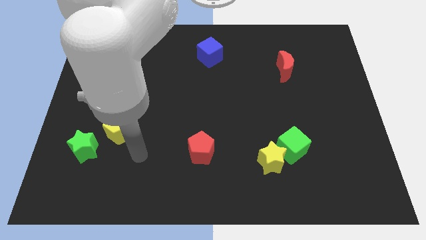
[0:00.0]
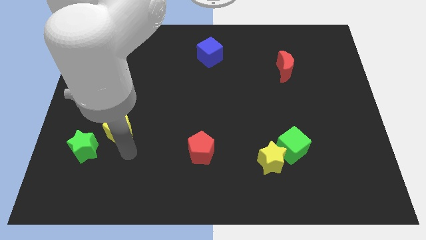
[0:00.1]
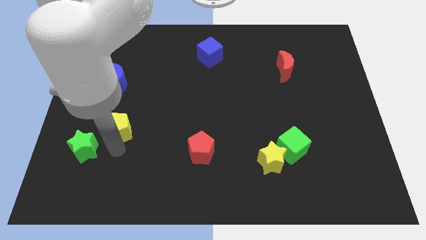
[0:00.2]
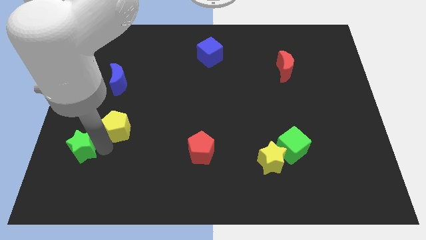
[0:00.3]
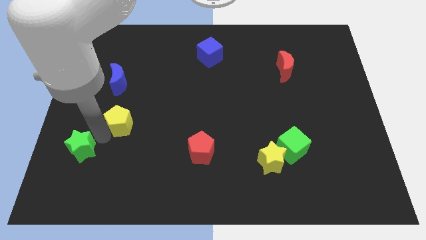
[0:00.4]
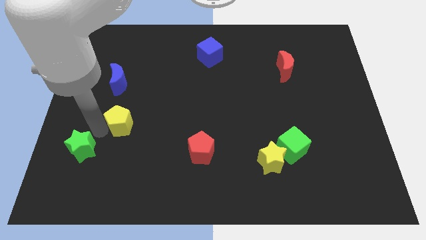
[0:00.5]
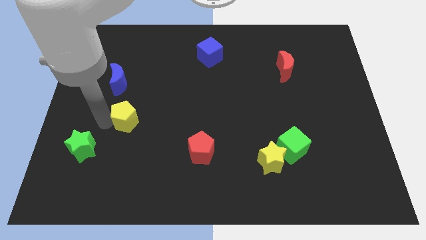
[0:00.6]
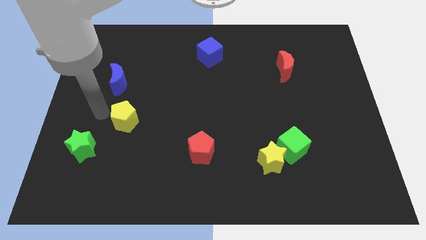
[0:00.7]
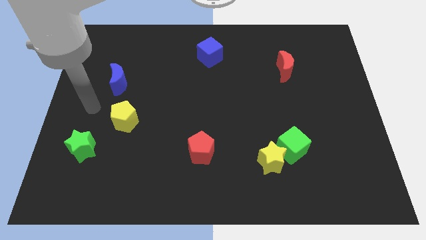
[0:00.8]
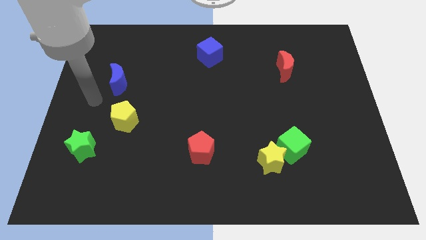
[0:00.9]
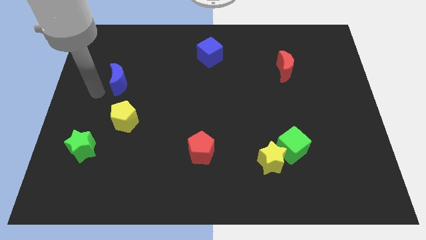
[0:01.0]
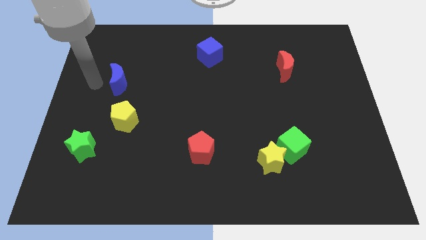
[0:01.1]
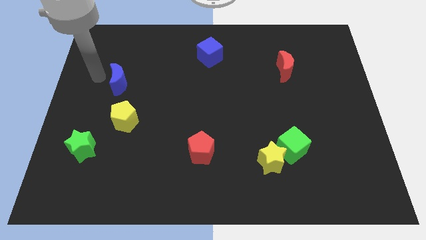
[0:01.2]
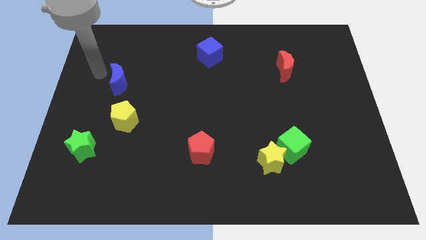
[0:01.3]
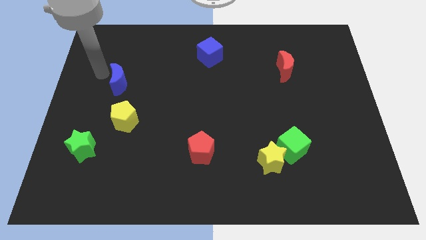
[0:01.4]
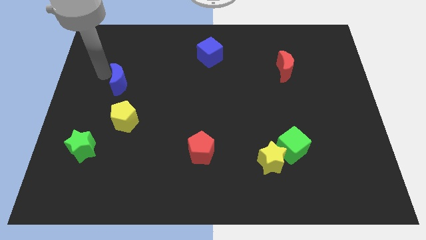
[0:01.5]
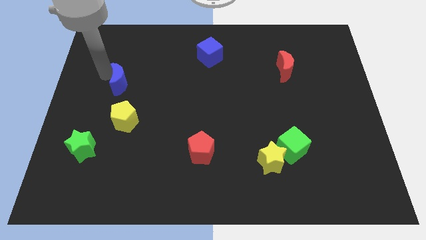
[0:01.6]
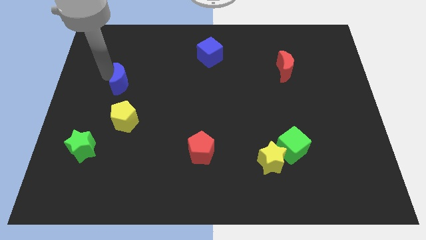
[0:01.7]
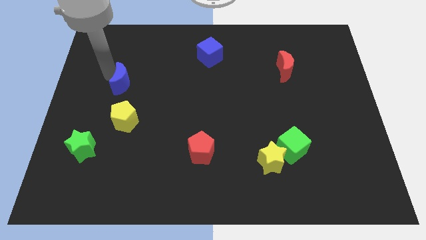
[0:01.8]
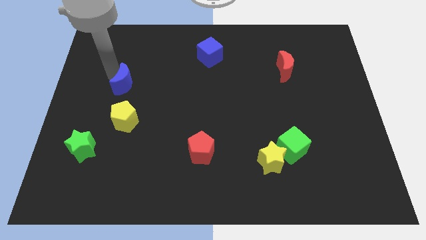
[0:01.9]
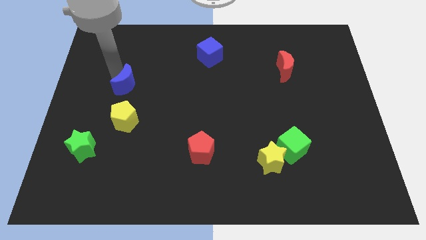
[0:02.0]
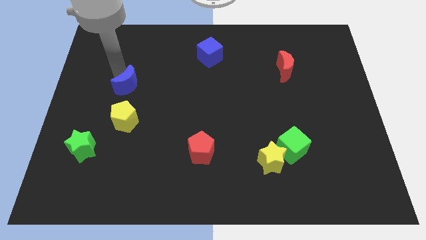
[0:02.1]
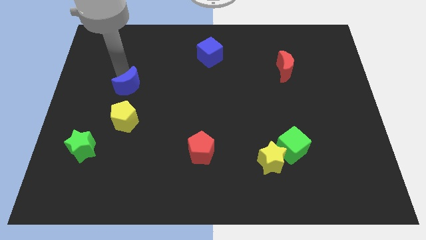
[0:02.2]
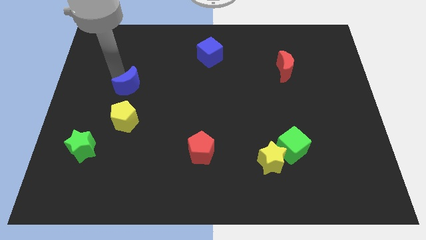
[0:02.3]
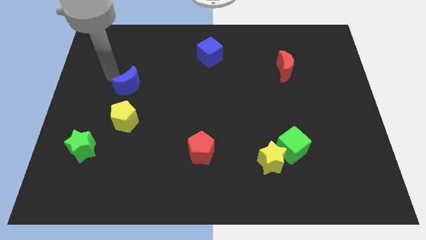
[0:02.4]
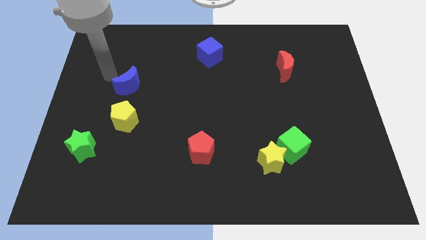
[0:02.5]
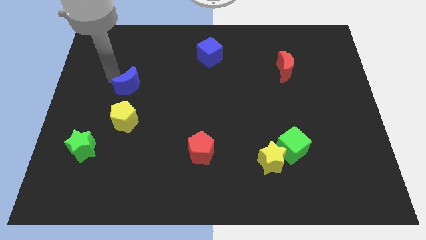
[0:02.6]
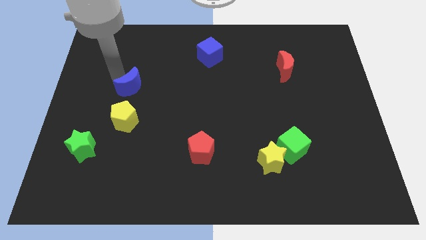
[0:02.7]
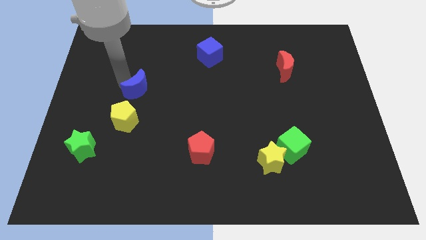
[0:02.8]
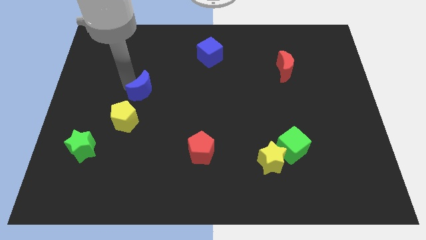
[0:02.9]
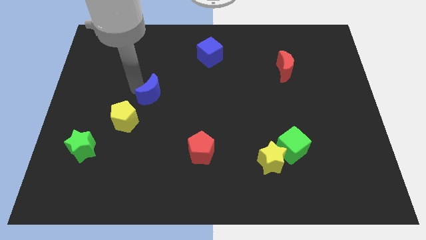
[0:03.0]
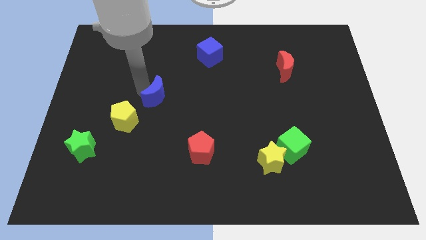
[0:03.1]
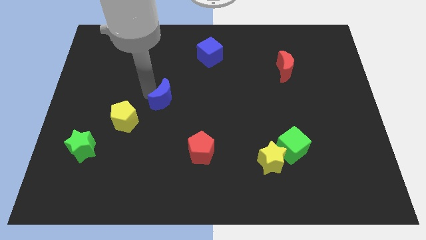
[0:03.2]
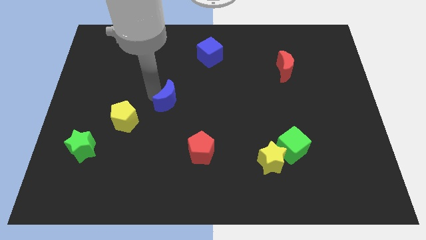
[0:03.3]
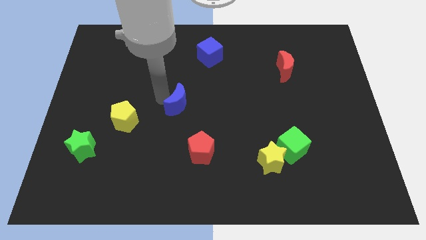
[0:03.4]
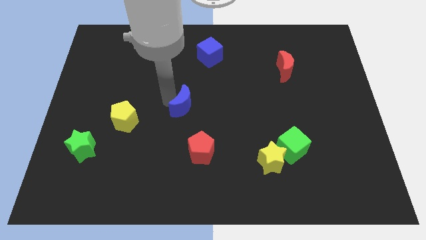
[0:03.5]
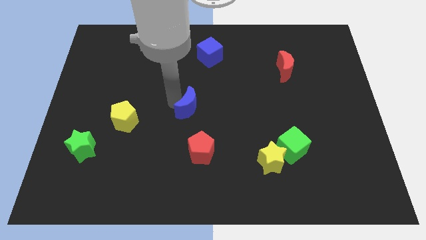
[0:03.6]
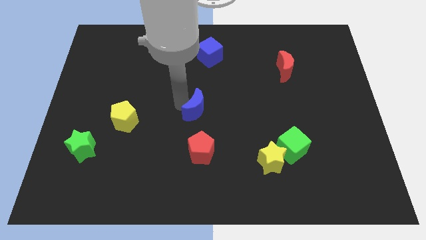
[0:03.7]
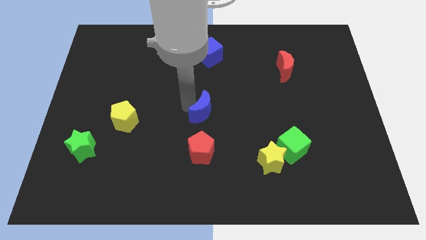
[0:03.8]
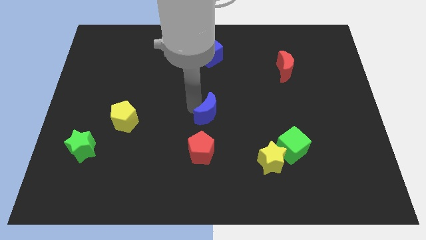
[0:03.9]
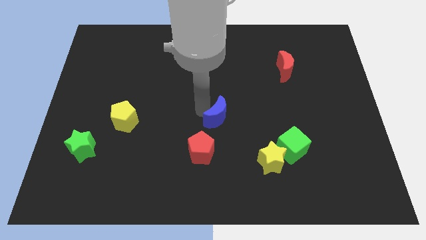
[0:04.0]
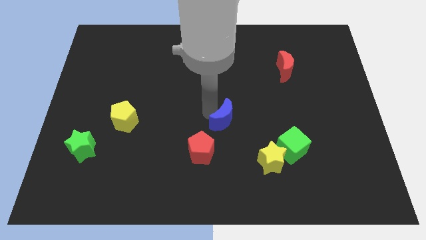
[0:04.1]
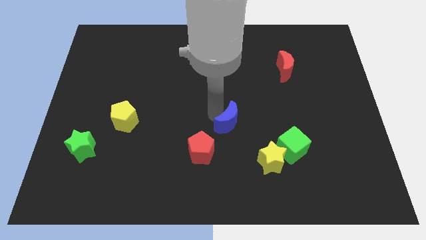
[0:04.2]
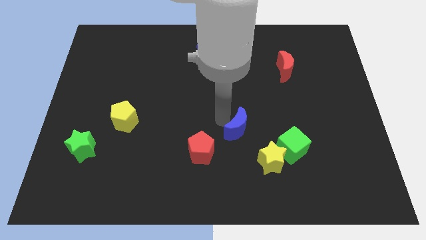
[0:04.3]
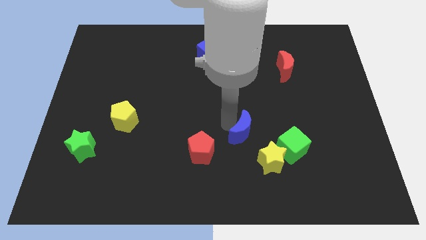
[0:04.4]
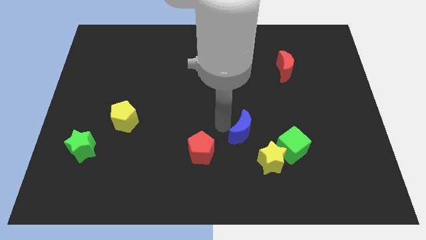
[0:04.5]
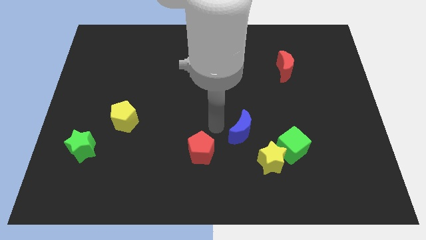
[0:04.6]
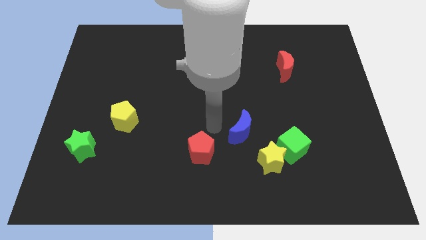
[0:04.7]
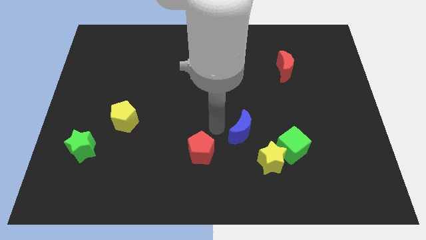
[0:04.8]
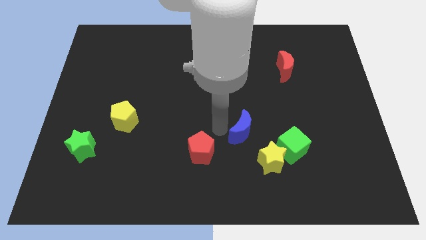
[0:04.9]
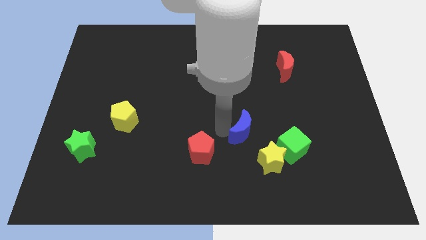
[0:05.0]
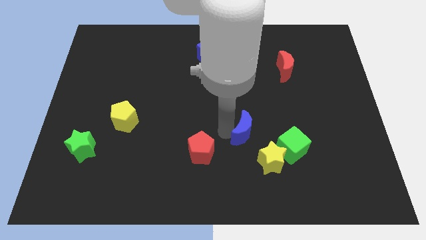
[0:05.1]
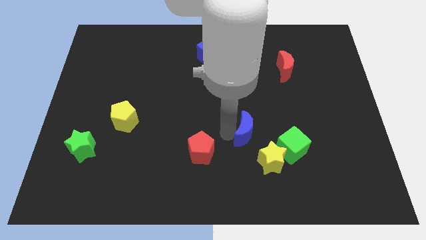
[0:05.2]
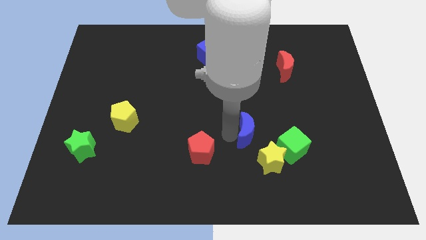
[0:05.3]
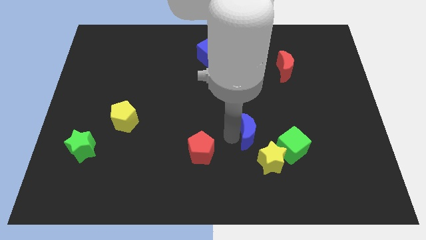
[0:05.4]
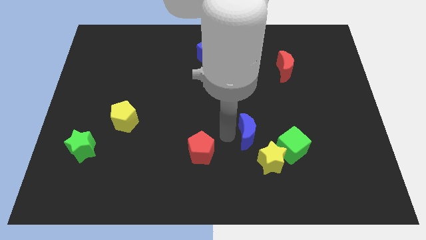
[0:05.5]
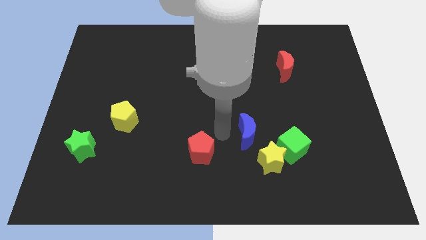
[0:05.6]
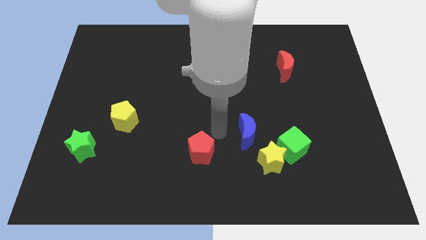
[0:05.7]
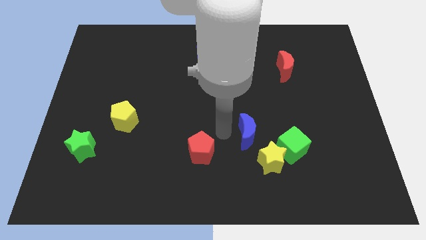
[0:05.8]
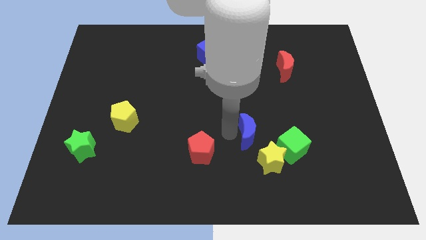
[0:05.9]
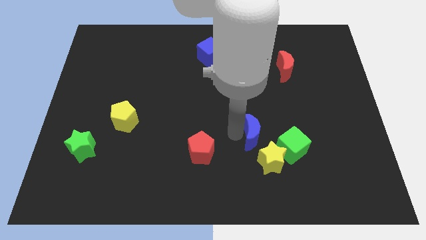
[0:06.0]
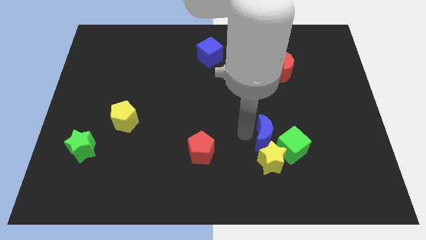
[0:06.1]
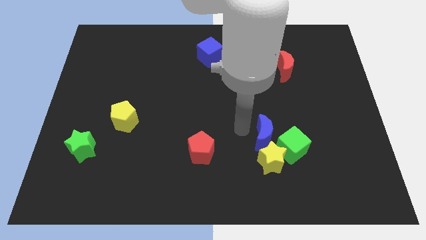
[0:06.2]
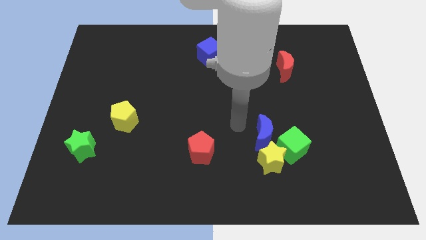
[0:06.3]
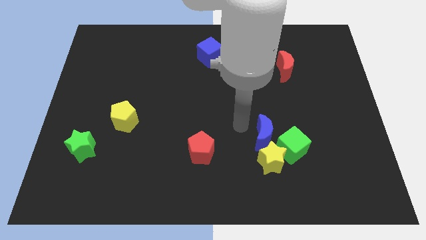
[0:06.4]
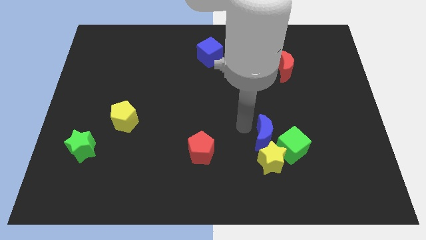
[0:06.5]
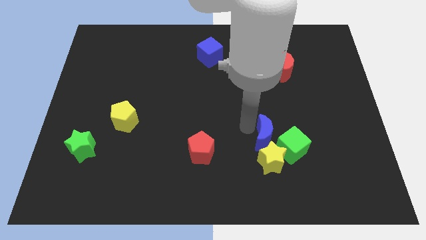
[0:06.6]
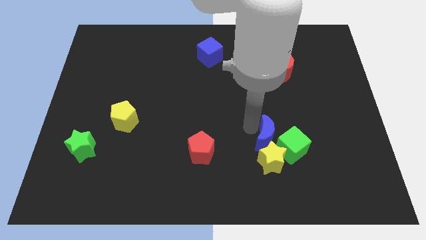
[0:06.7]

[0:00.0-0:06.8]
move the blue moon close to the green cube

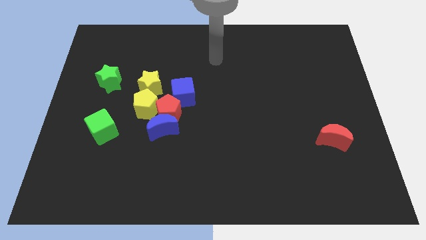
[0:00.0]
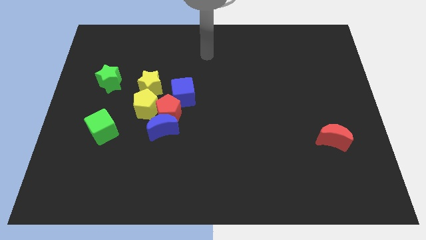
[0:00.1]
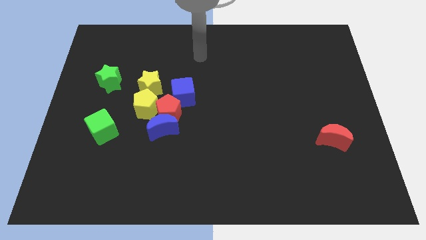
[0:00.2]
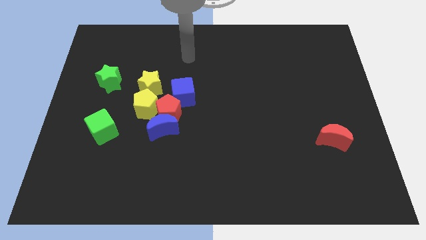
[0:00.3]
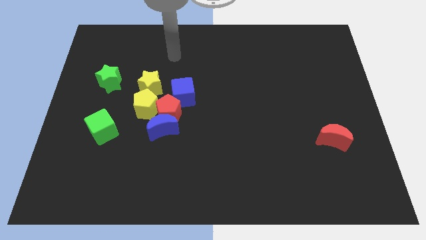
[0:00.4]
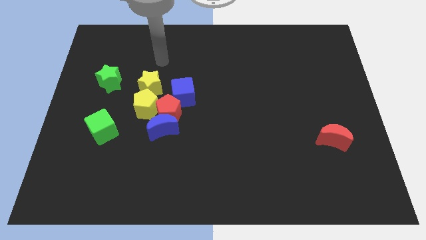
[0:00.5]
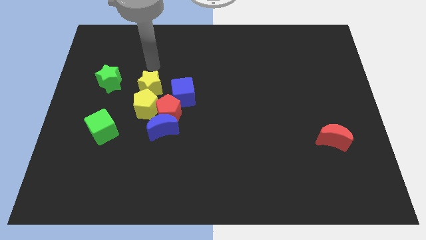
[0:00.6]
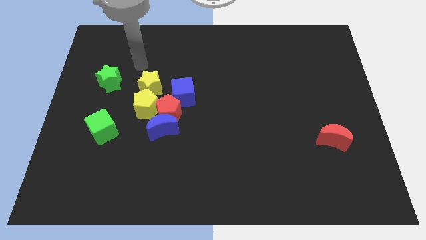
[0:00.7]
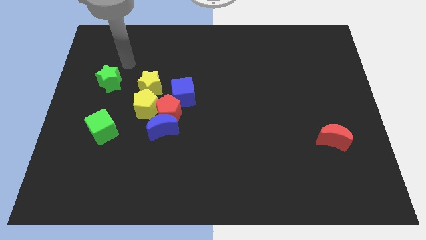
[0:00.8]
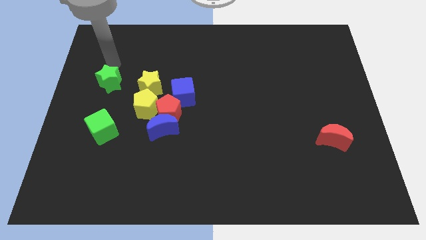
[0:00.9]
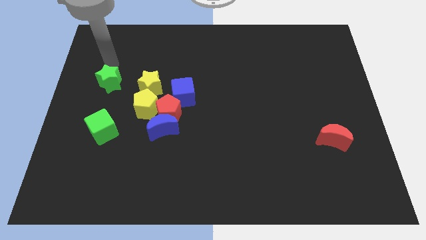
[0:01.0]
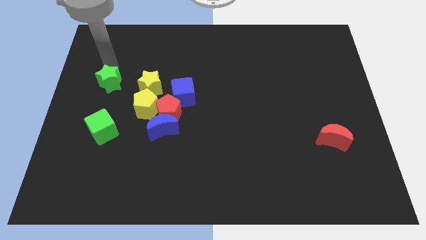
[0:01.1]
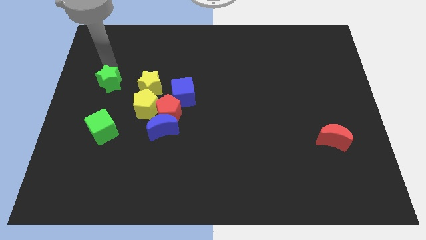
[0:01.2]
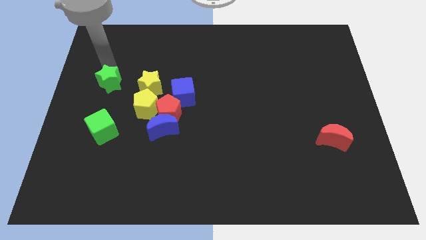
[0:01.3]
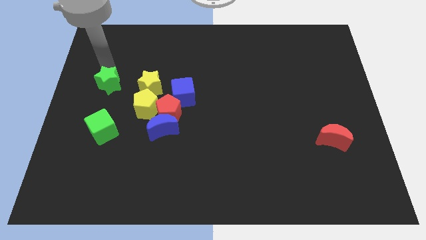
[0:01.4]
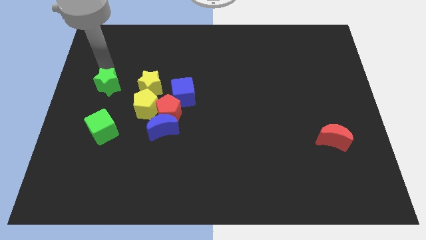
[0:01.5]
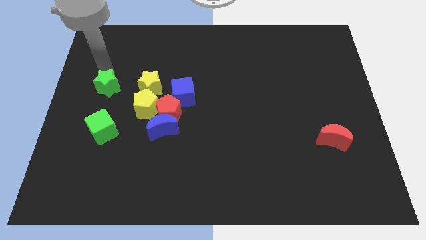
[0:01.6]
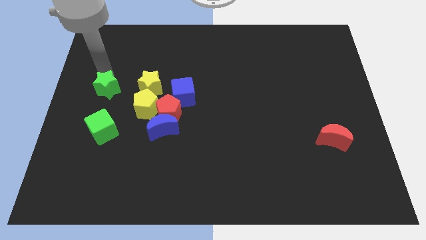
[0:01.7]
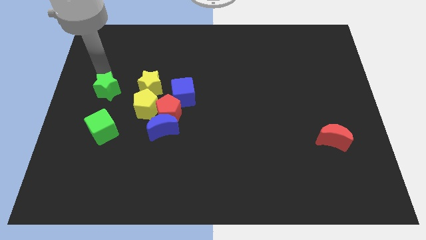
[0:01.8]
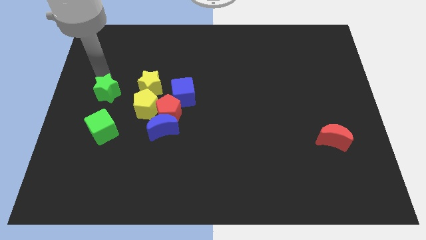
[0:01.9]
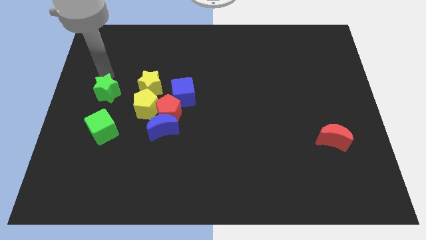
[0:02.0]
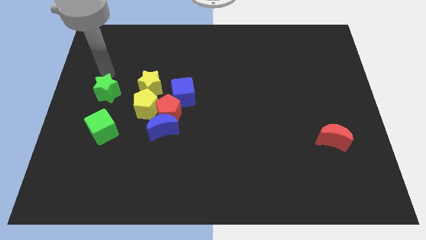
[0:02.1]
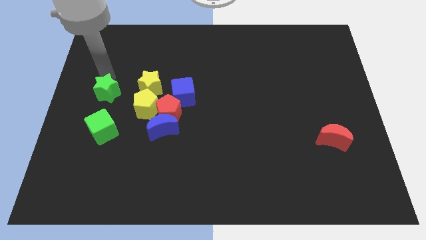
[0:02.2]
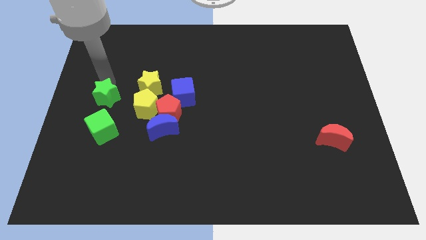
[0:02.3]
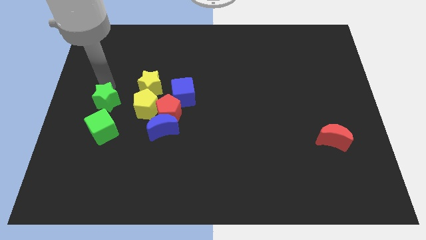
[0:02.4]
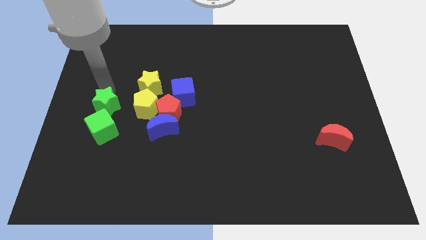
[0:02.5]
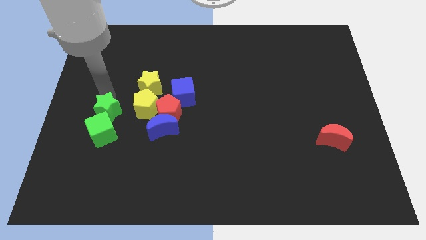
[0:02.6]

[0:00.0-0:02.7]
push the green star to the green cube
